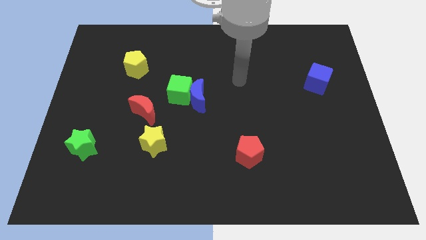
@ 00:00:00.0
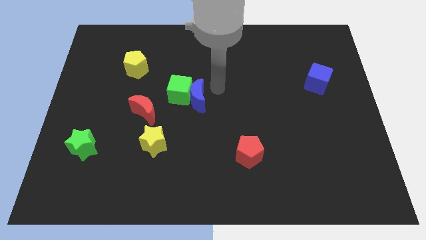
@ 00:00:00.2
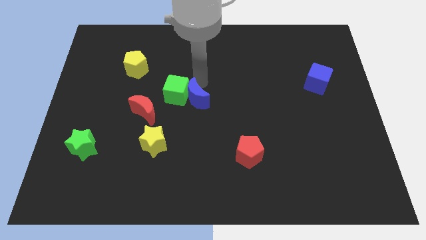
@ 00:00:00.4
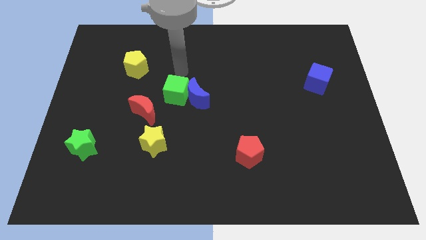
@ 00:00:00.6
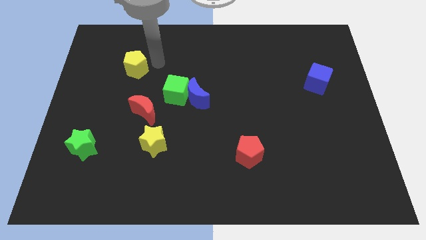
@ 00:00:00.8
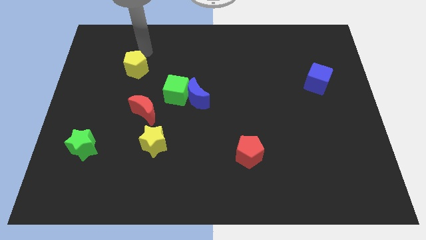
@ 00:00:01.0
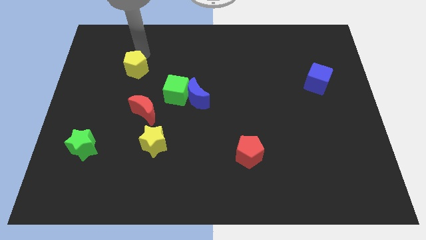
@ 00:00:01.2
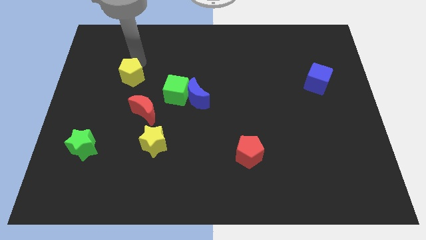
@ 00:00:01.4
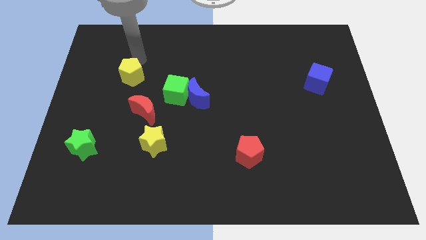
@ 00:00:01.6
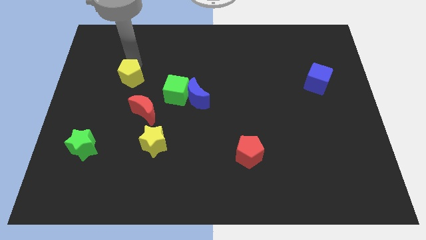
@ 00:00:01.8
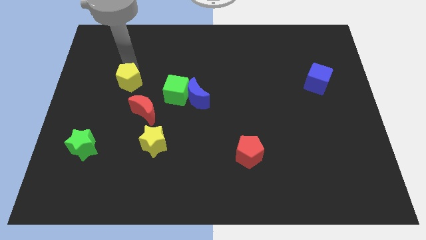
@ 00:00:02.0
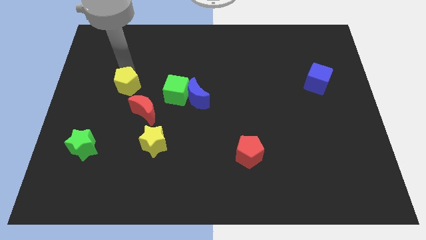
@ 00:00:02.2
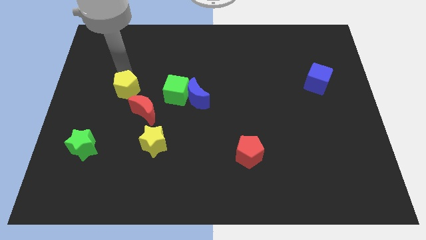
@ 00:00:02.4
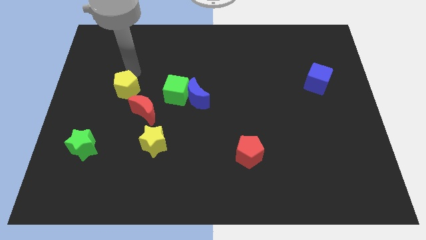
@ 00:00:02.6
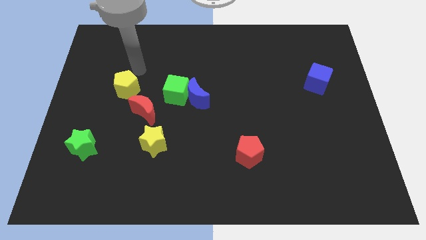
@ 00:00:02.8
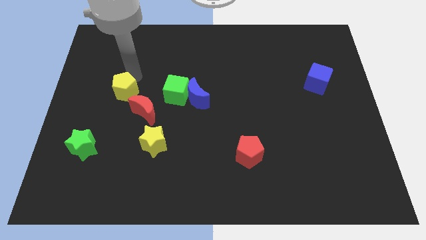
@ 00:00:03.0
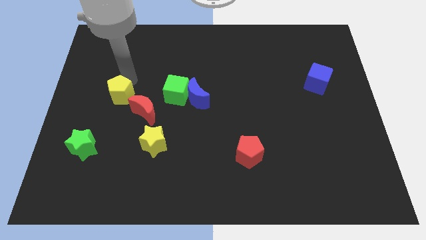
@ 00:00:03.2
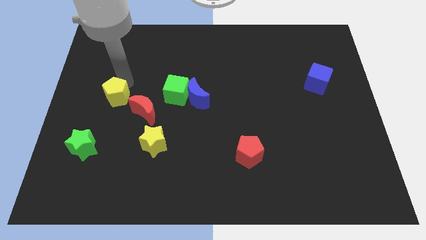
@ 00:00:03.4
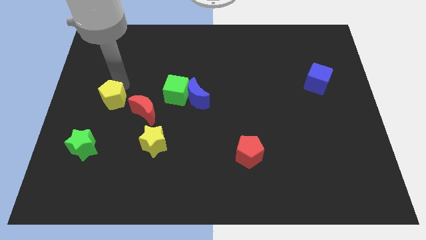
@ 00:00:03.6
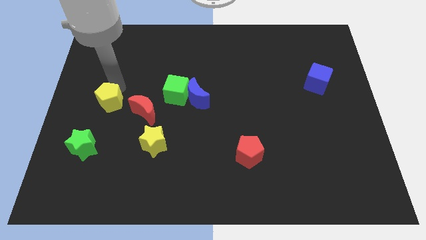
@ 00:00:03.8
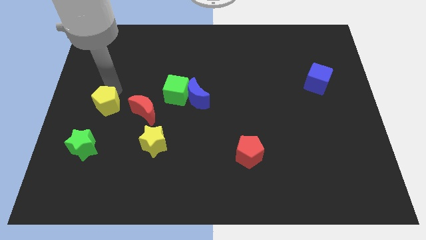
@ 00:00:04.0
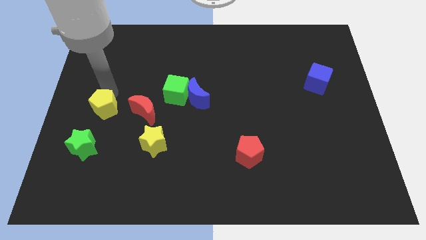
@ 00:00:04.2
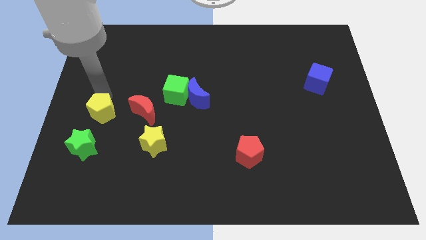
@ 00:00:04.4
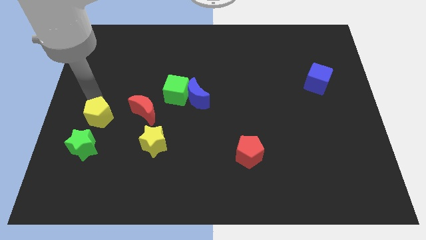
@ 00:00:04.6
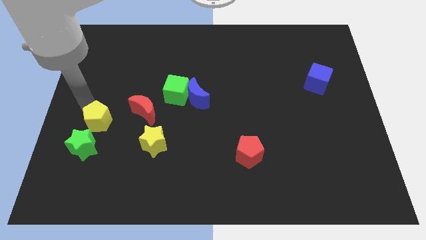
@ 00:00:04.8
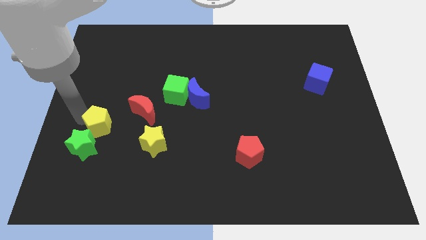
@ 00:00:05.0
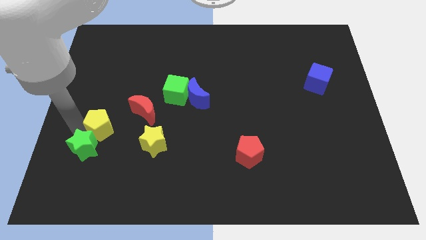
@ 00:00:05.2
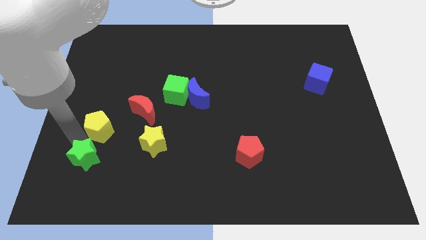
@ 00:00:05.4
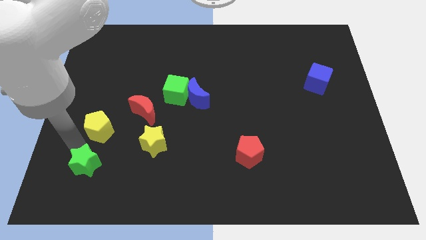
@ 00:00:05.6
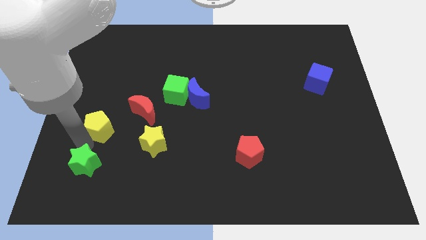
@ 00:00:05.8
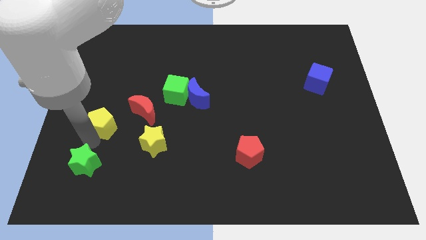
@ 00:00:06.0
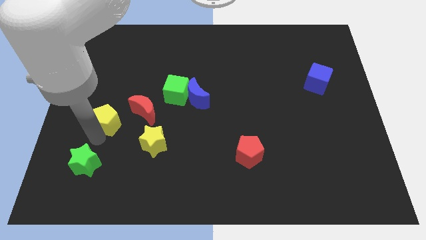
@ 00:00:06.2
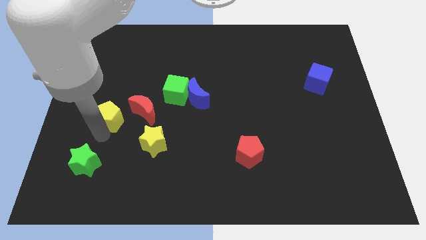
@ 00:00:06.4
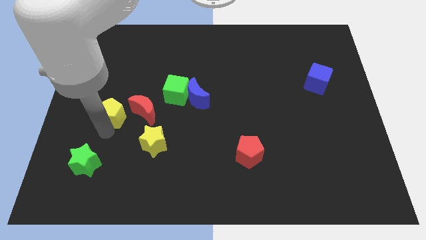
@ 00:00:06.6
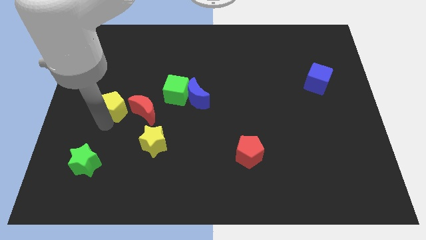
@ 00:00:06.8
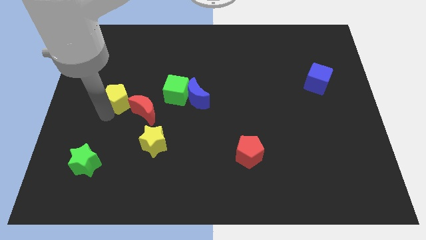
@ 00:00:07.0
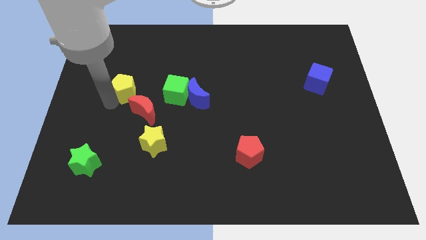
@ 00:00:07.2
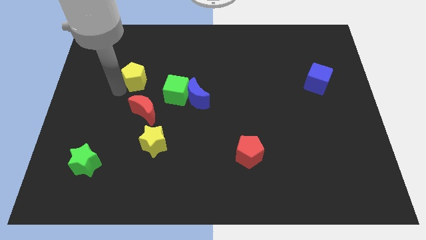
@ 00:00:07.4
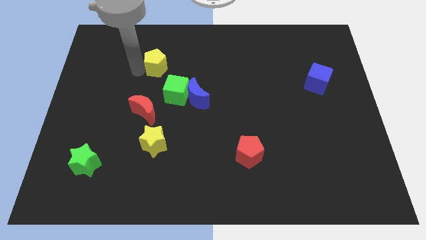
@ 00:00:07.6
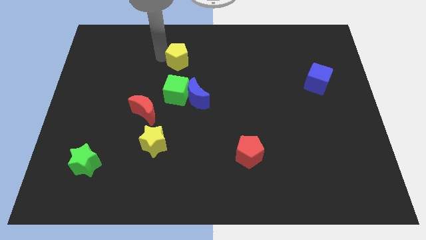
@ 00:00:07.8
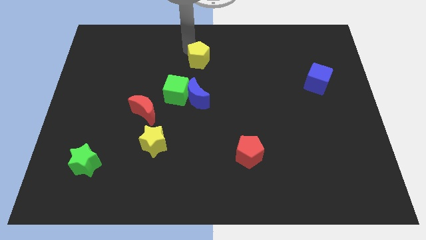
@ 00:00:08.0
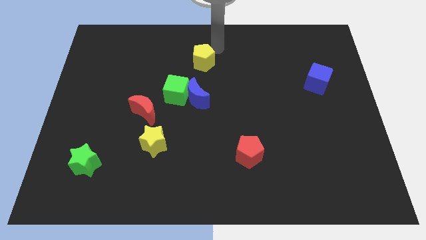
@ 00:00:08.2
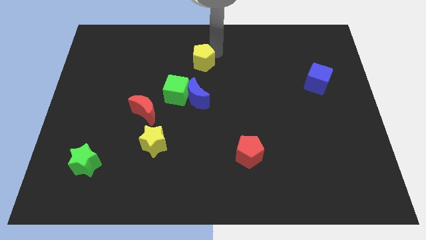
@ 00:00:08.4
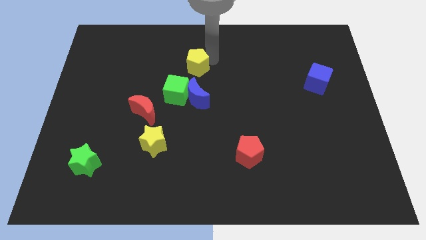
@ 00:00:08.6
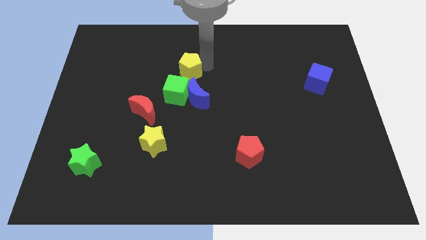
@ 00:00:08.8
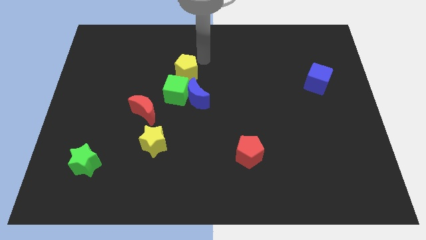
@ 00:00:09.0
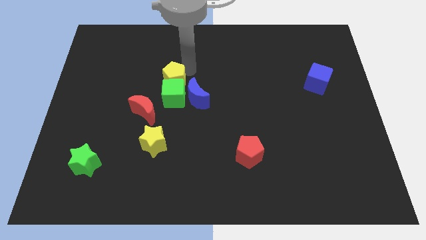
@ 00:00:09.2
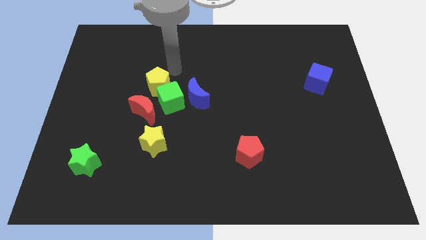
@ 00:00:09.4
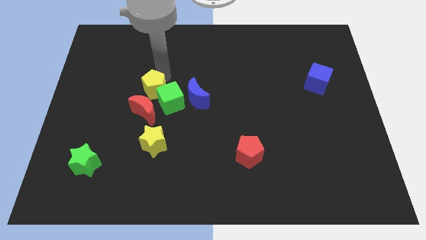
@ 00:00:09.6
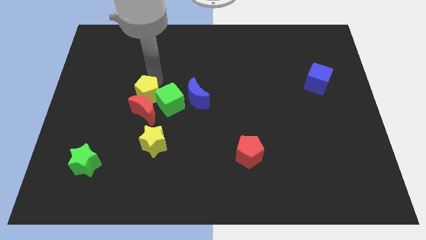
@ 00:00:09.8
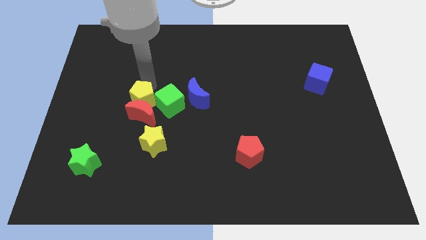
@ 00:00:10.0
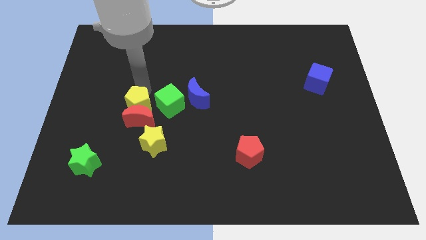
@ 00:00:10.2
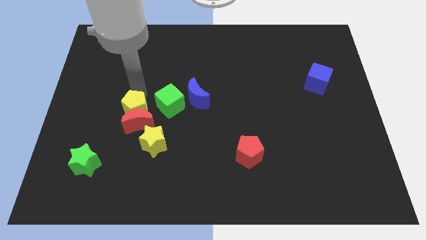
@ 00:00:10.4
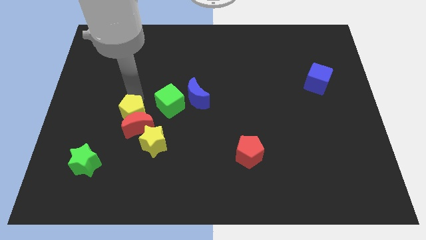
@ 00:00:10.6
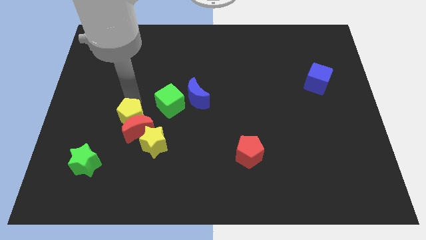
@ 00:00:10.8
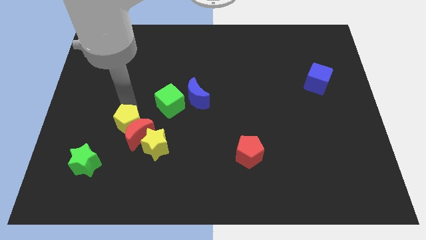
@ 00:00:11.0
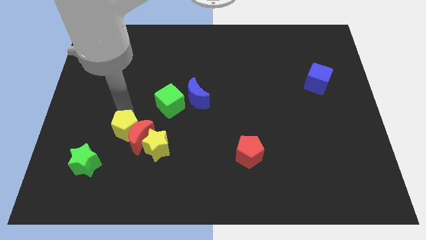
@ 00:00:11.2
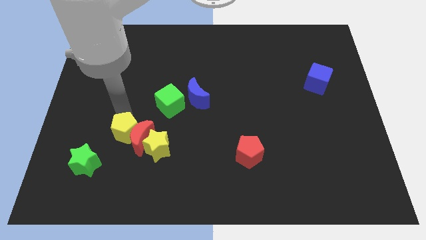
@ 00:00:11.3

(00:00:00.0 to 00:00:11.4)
move the yellow pentagon downwards

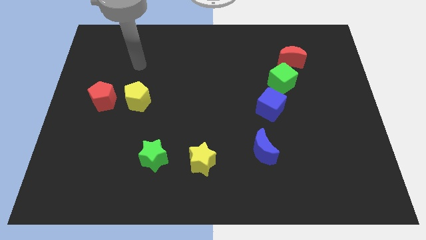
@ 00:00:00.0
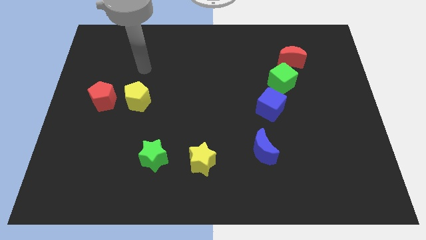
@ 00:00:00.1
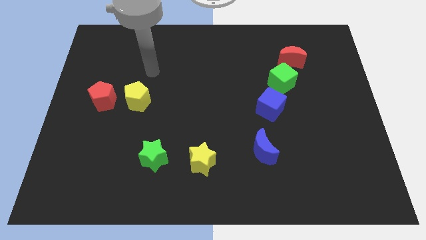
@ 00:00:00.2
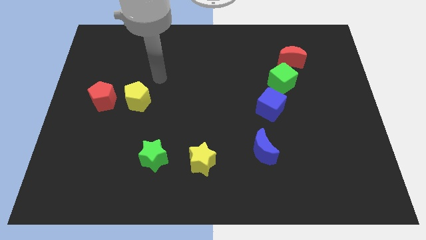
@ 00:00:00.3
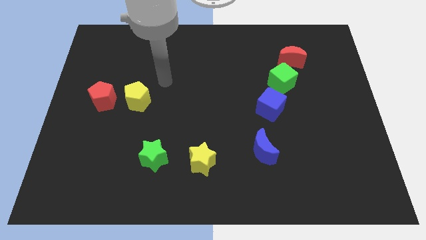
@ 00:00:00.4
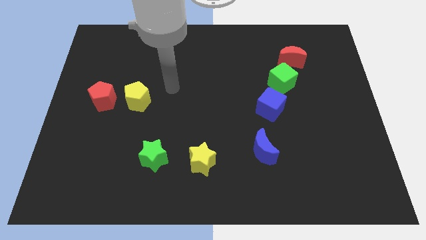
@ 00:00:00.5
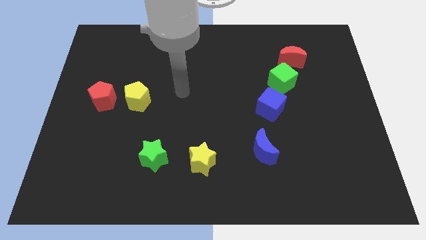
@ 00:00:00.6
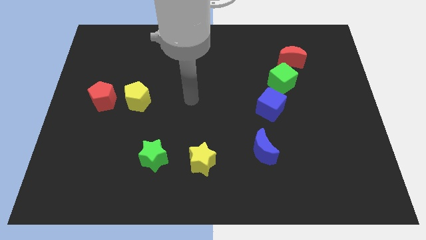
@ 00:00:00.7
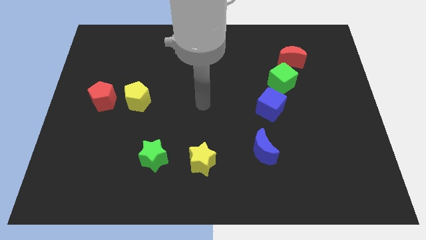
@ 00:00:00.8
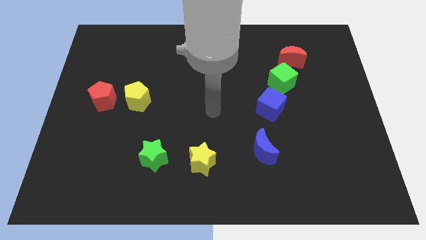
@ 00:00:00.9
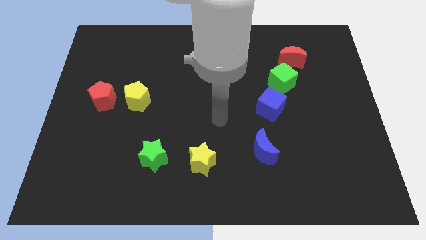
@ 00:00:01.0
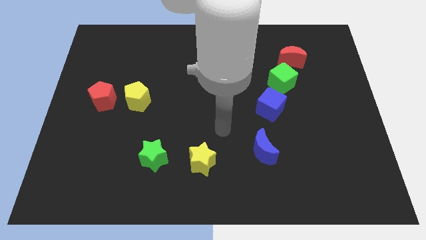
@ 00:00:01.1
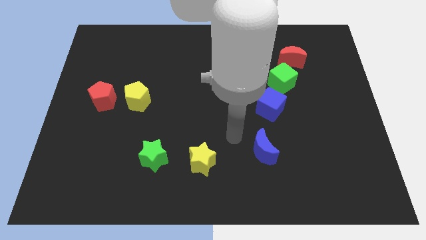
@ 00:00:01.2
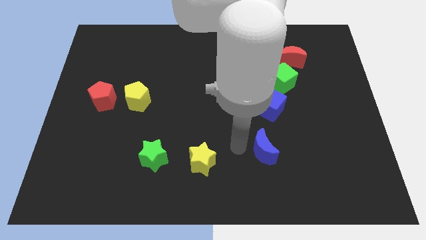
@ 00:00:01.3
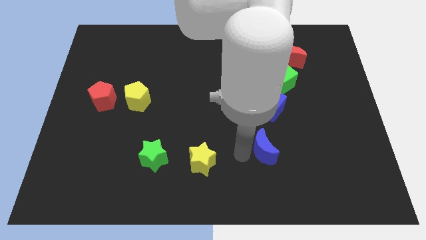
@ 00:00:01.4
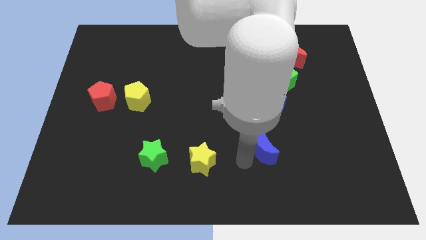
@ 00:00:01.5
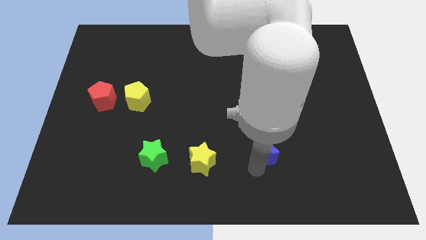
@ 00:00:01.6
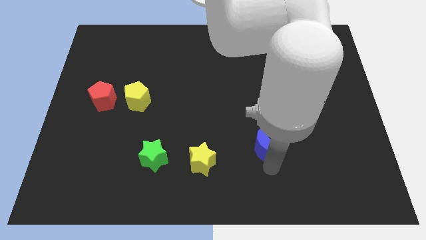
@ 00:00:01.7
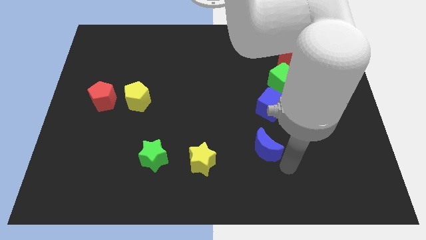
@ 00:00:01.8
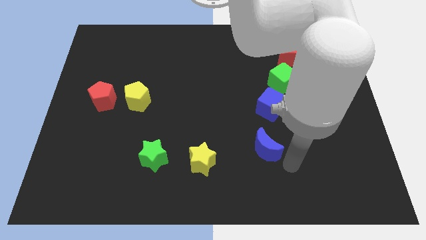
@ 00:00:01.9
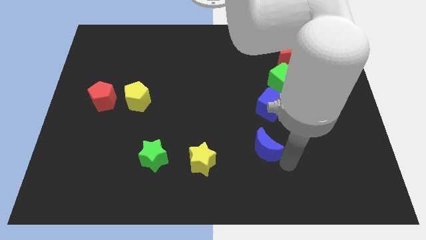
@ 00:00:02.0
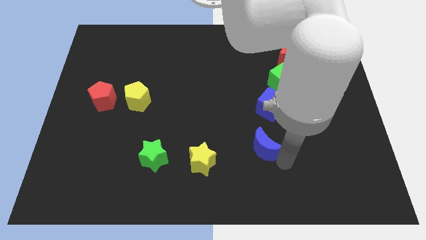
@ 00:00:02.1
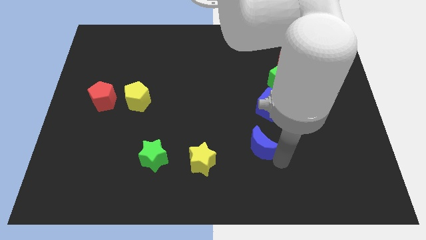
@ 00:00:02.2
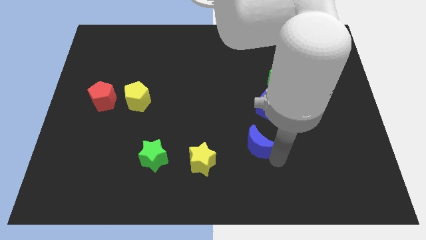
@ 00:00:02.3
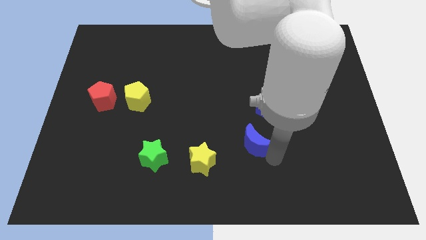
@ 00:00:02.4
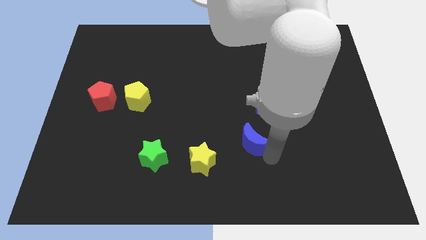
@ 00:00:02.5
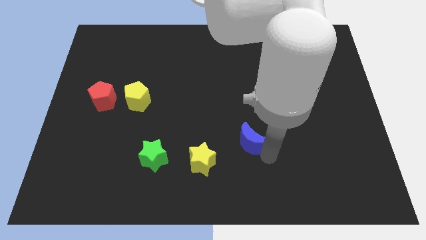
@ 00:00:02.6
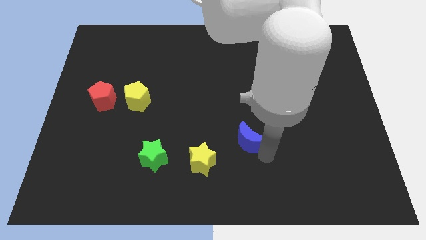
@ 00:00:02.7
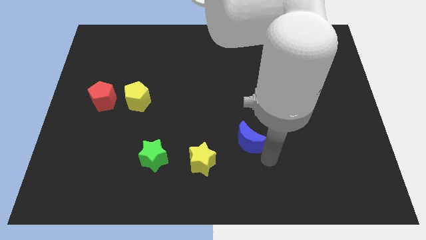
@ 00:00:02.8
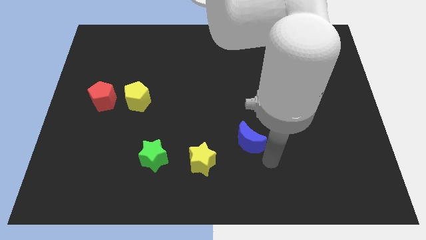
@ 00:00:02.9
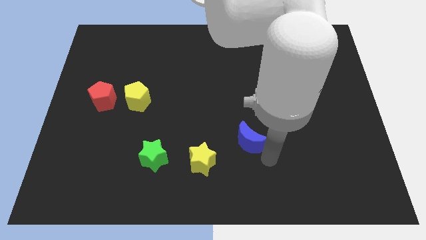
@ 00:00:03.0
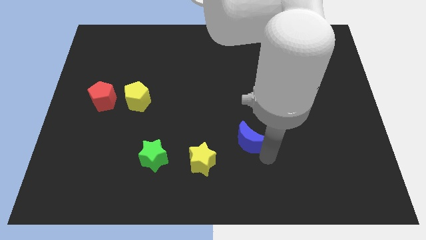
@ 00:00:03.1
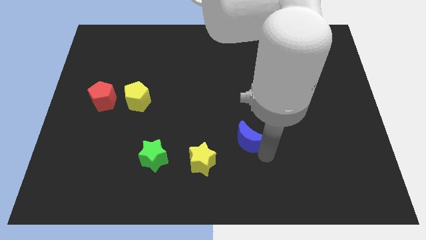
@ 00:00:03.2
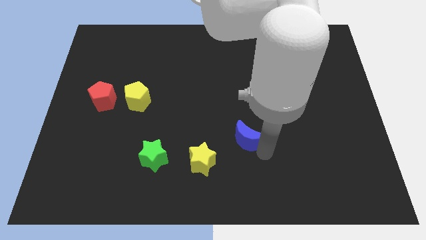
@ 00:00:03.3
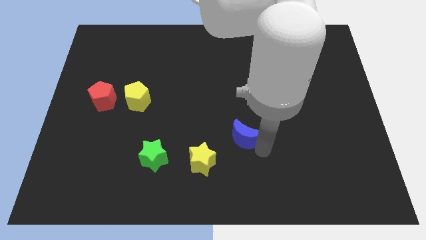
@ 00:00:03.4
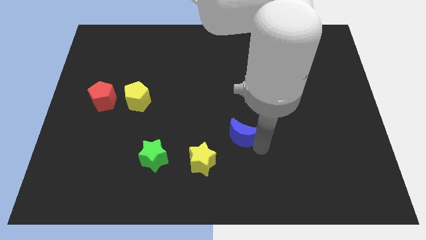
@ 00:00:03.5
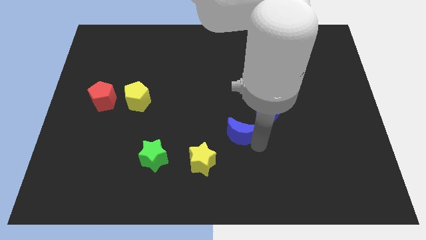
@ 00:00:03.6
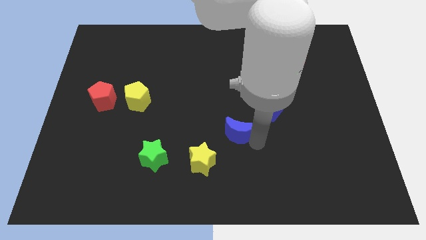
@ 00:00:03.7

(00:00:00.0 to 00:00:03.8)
push the blue moon a bit upwards and to the left diagonally
